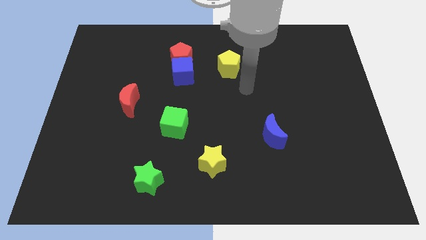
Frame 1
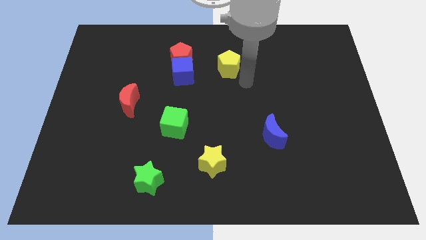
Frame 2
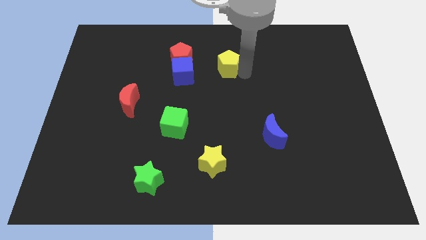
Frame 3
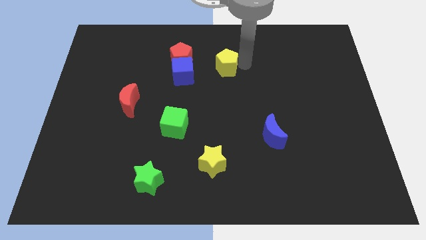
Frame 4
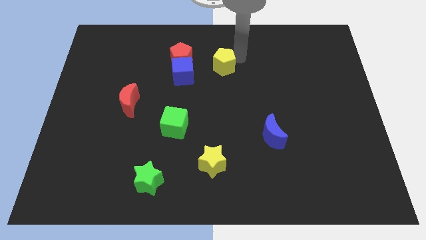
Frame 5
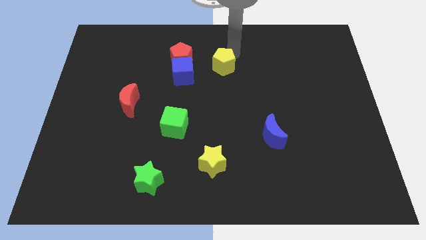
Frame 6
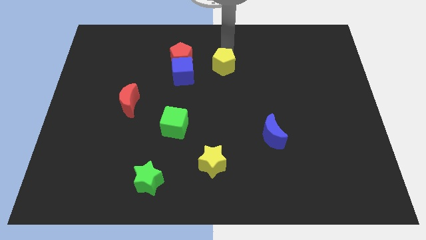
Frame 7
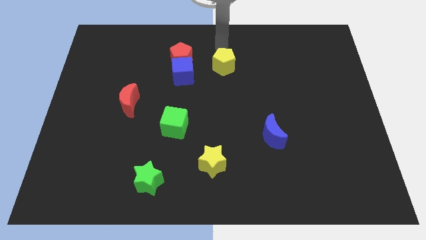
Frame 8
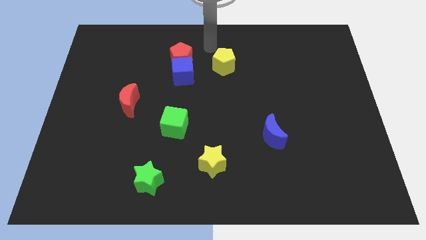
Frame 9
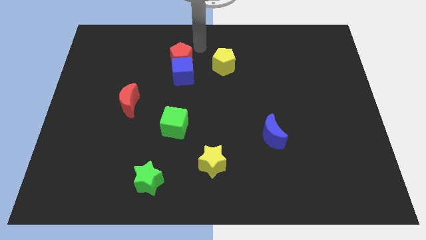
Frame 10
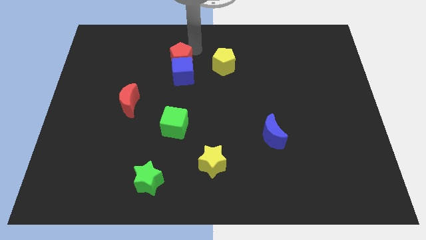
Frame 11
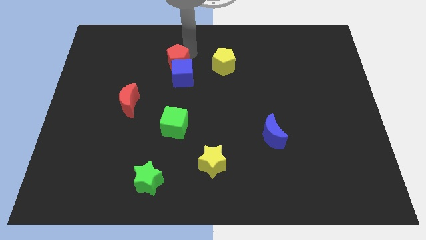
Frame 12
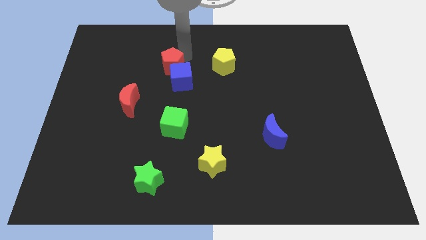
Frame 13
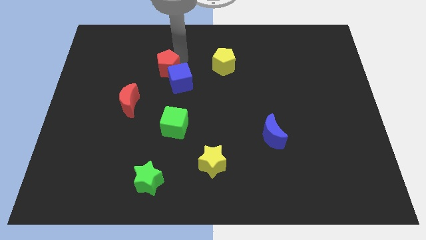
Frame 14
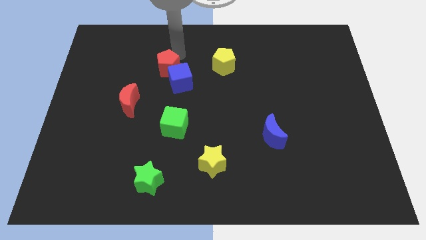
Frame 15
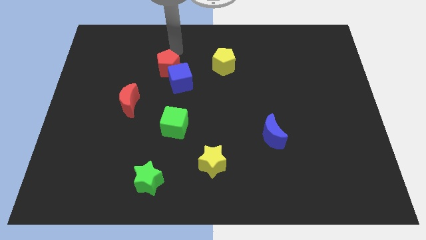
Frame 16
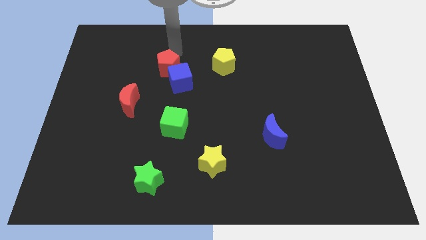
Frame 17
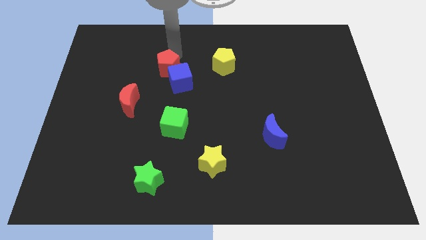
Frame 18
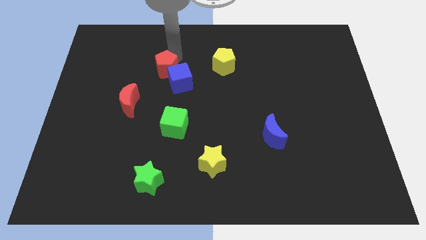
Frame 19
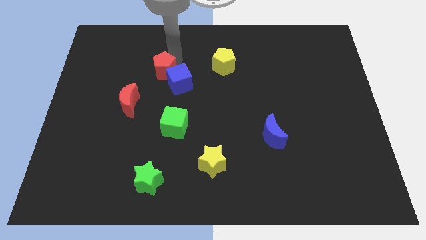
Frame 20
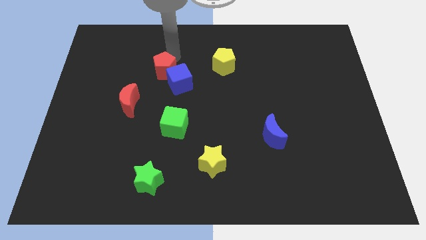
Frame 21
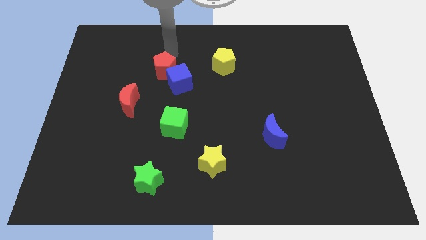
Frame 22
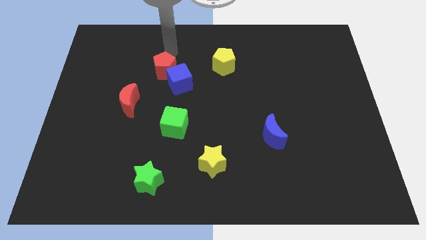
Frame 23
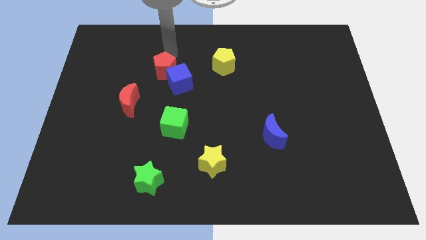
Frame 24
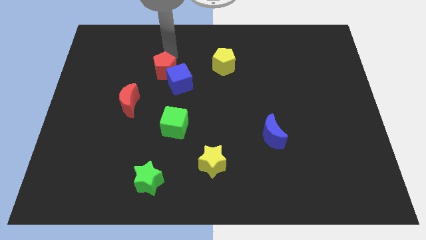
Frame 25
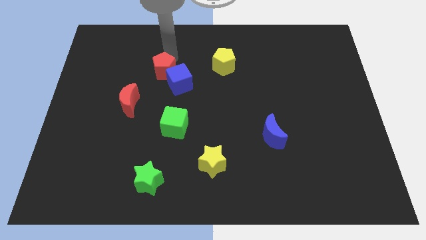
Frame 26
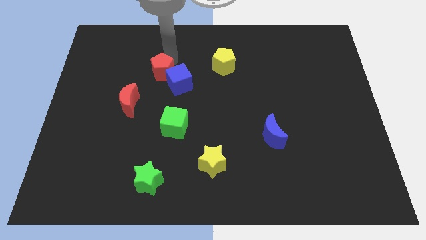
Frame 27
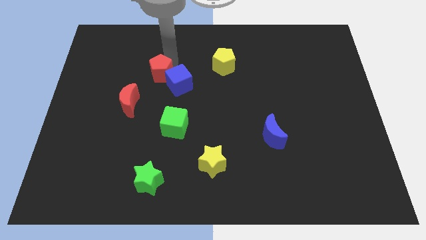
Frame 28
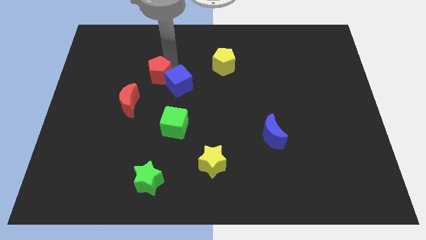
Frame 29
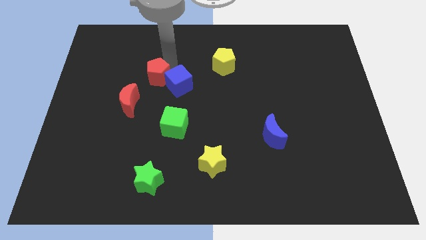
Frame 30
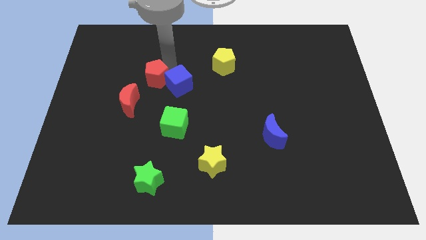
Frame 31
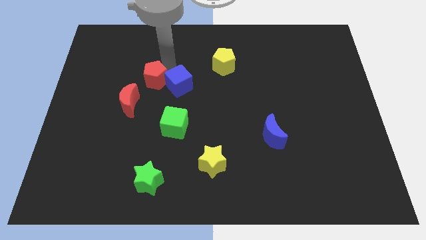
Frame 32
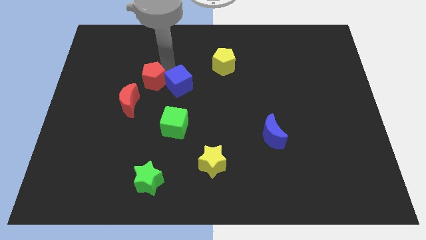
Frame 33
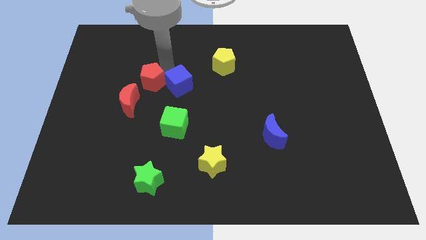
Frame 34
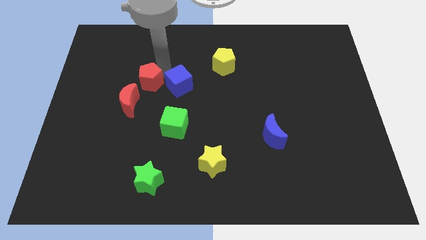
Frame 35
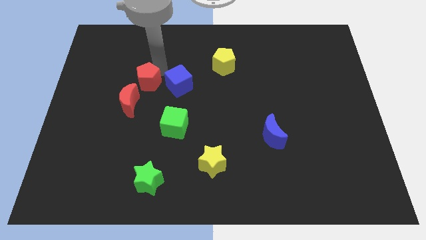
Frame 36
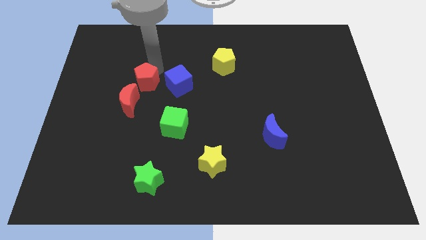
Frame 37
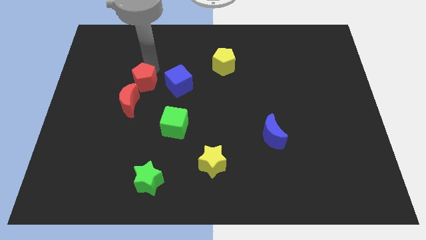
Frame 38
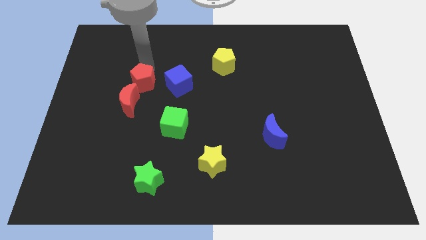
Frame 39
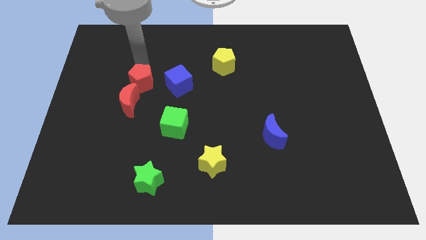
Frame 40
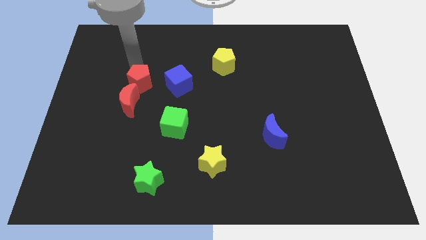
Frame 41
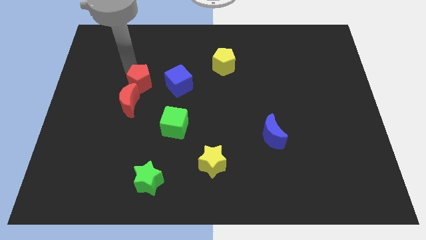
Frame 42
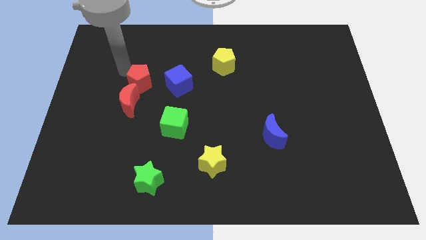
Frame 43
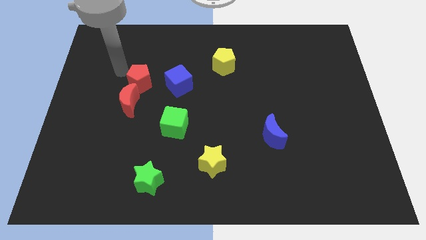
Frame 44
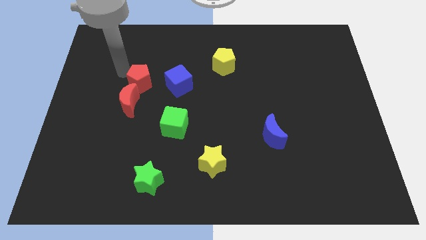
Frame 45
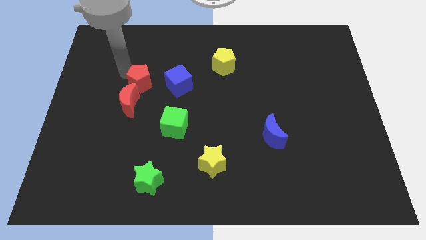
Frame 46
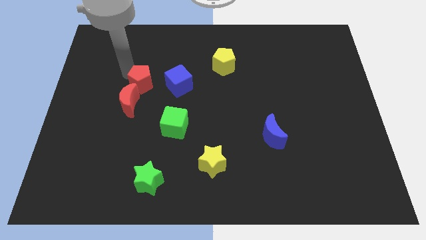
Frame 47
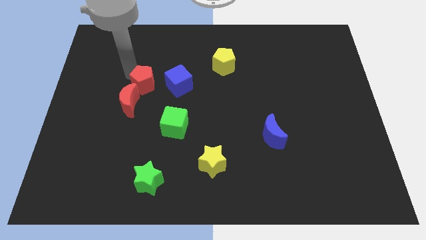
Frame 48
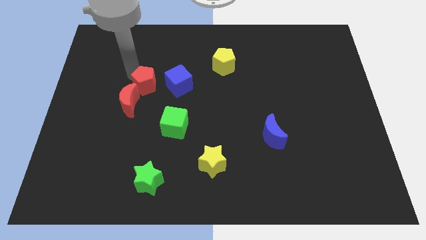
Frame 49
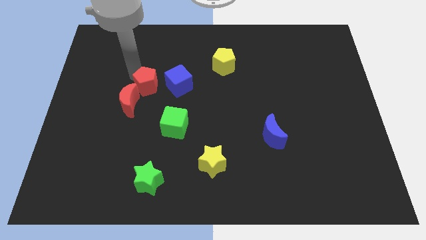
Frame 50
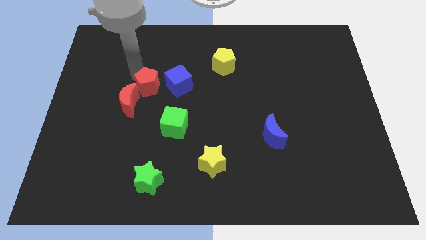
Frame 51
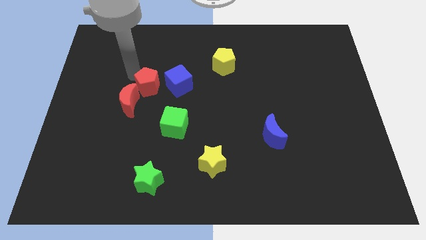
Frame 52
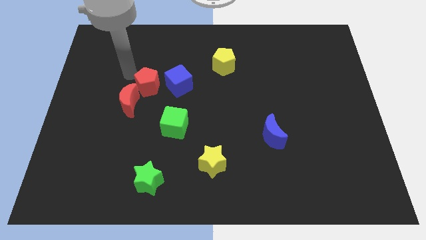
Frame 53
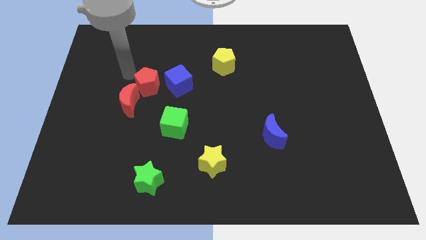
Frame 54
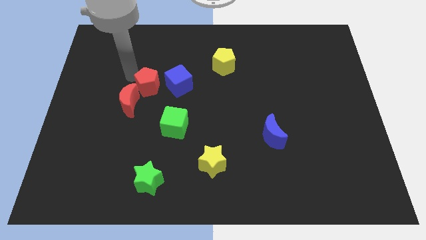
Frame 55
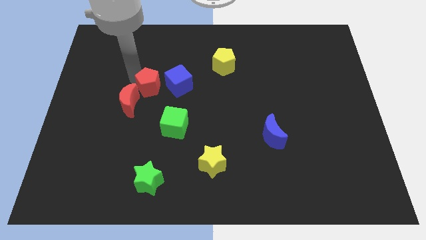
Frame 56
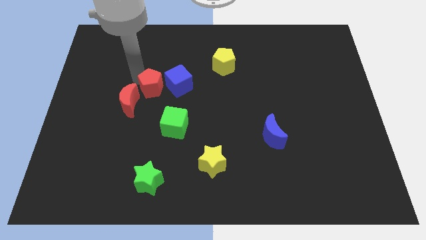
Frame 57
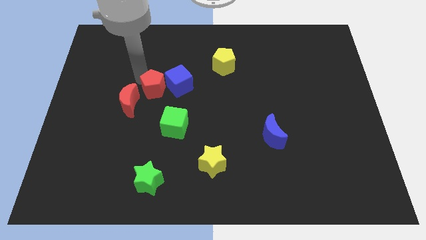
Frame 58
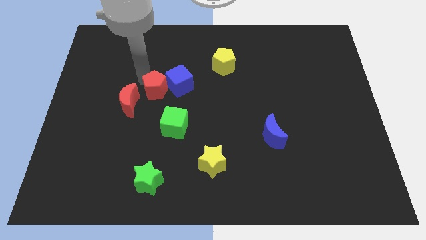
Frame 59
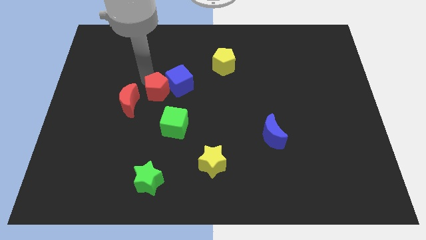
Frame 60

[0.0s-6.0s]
move the red pentagon to the top left side of the green cube
